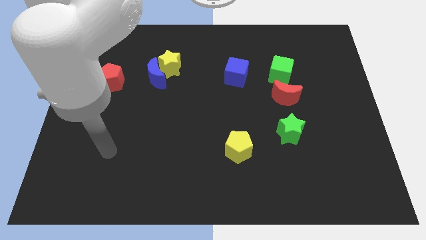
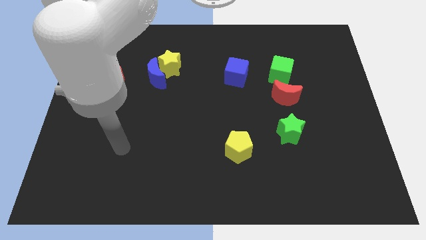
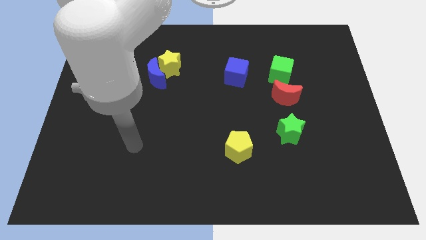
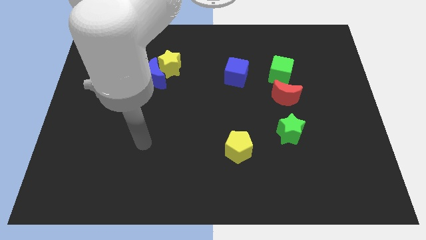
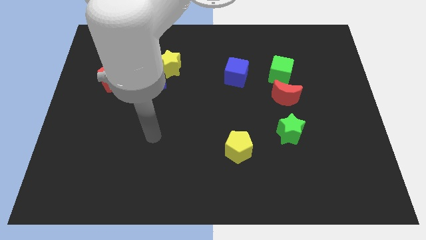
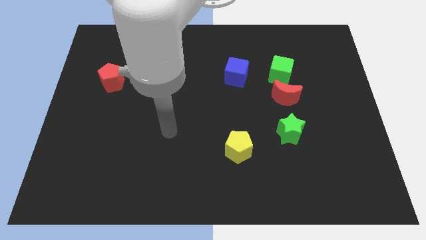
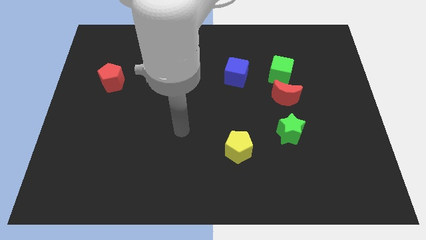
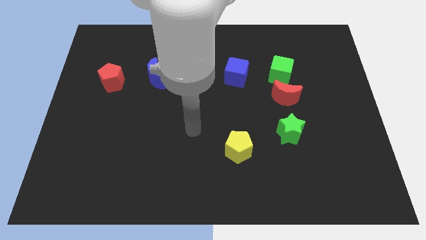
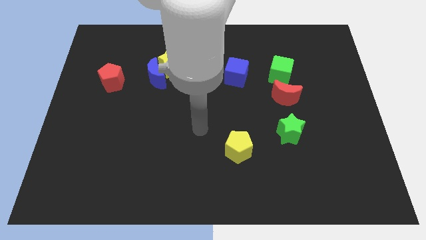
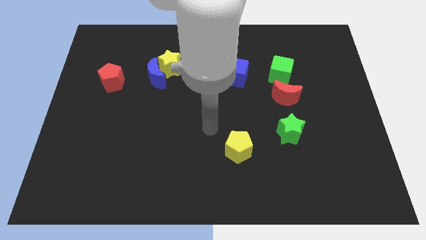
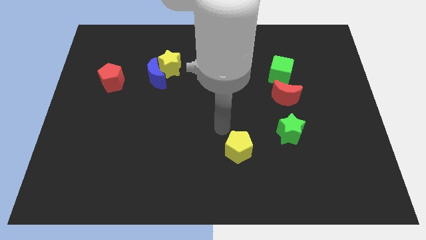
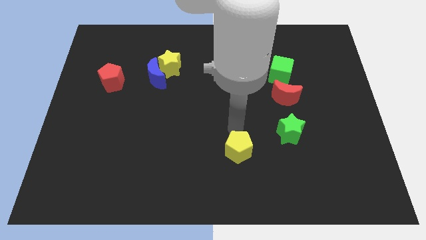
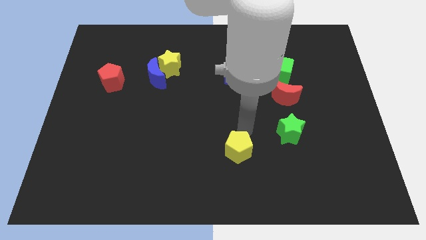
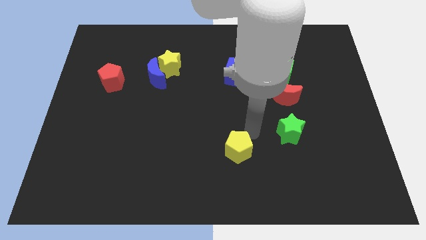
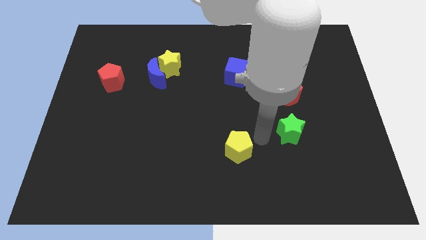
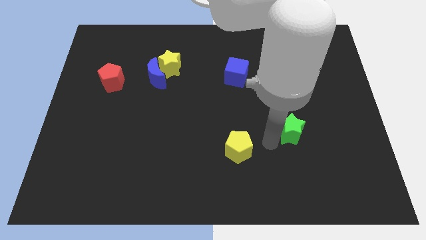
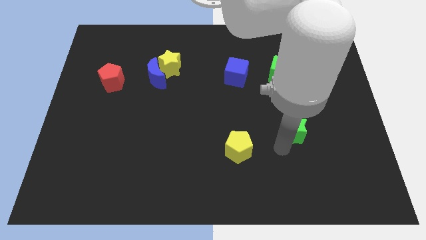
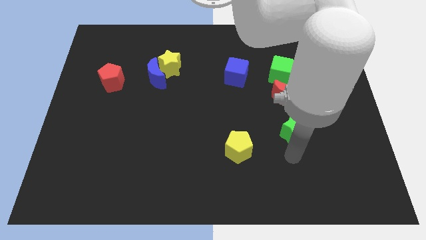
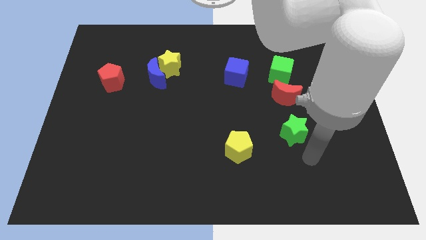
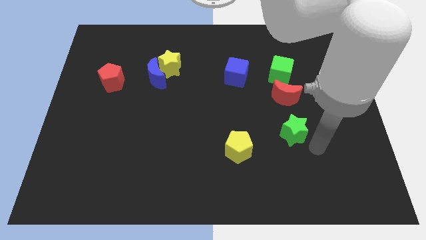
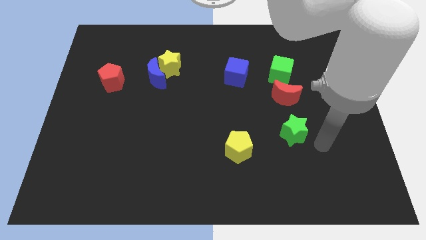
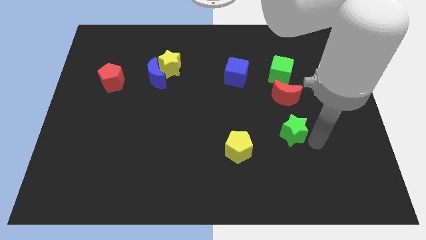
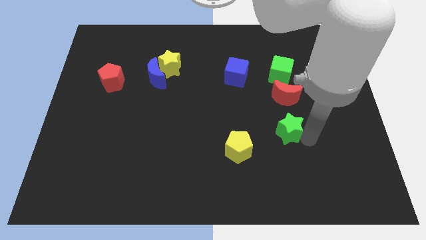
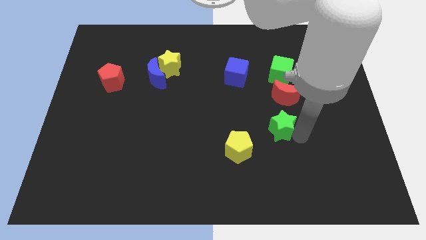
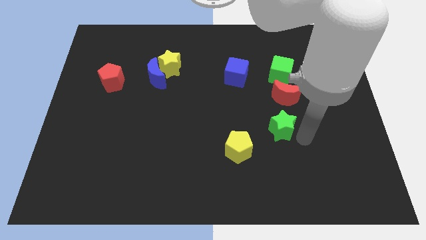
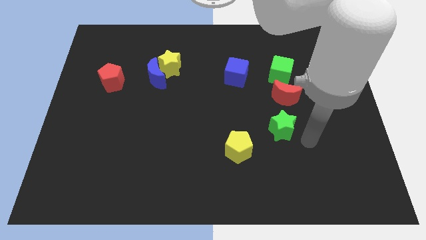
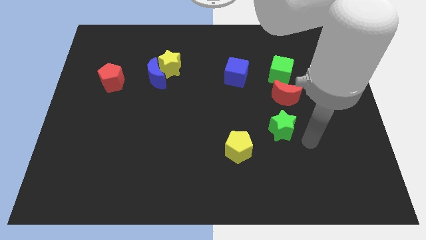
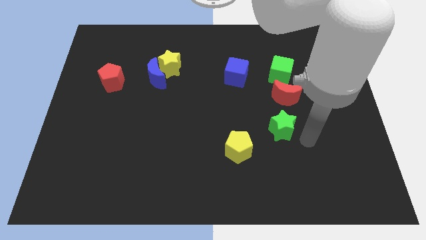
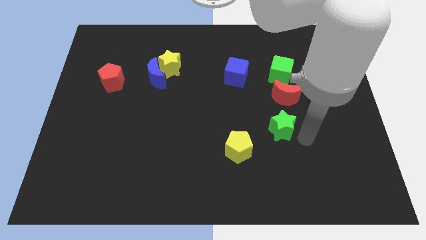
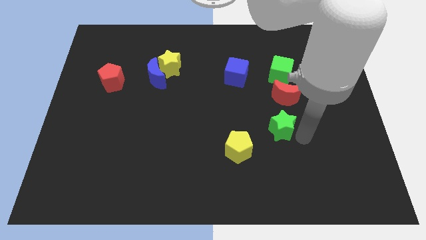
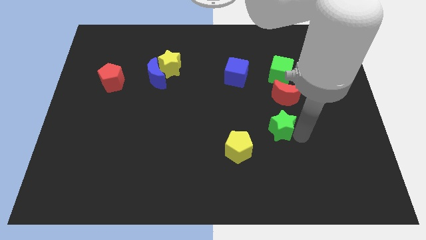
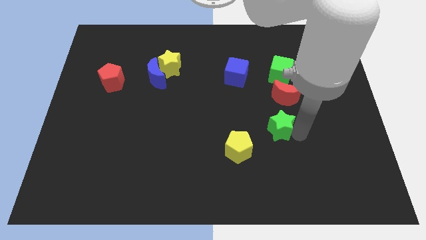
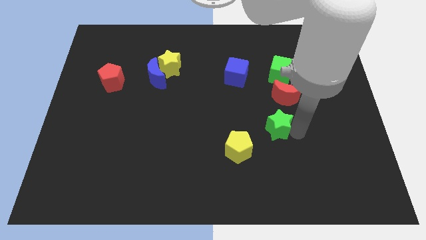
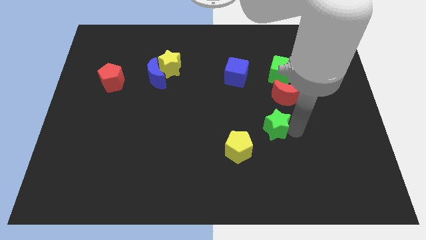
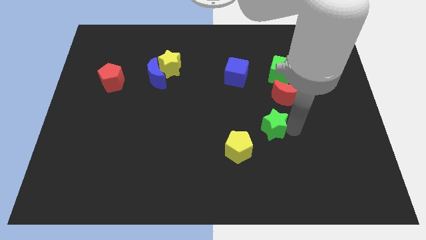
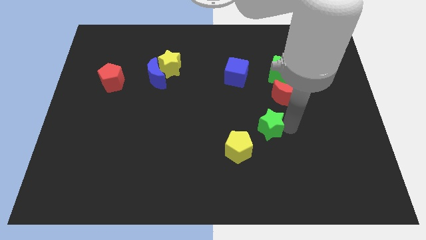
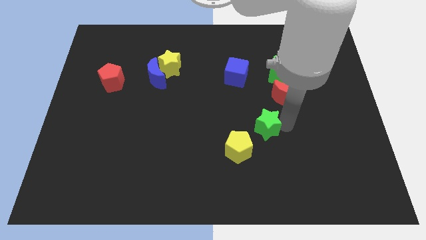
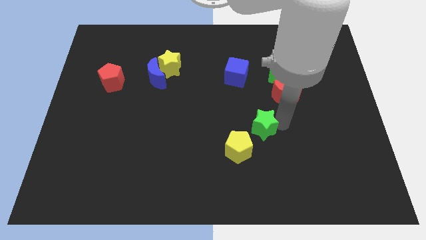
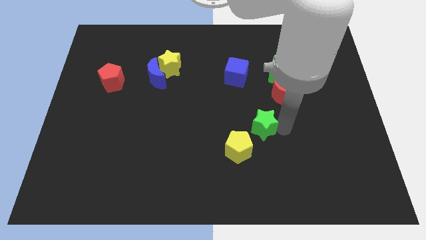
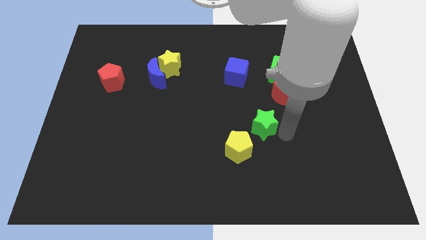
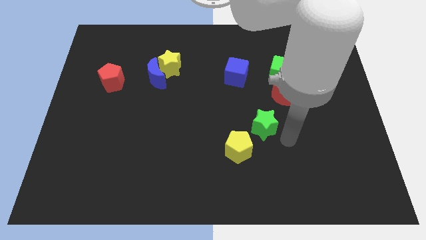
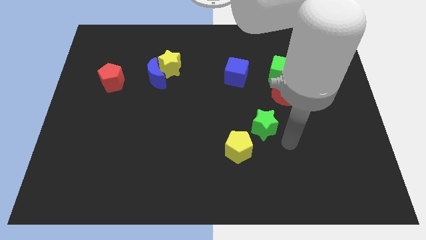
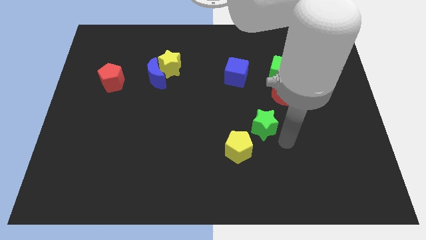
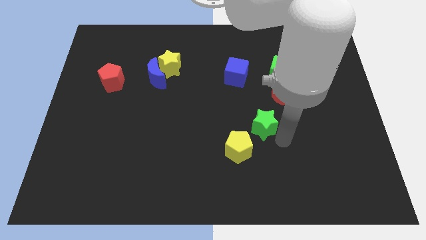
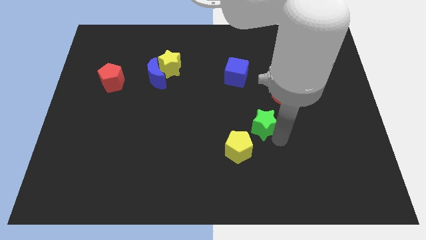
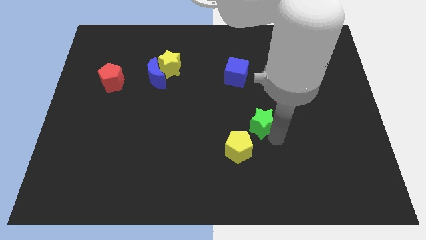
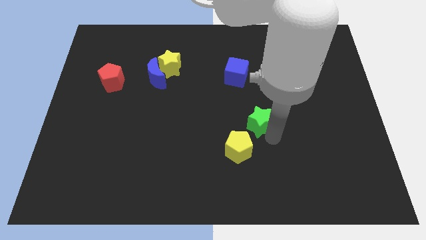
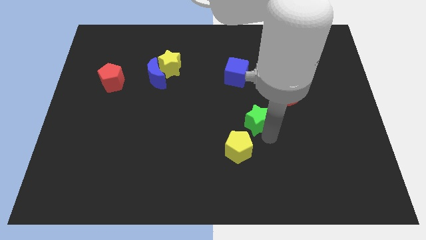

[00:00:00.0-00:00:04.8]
put the green star to the middle

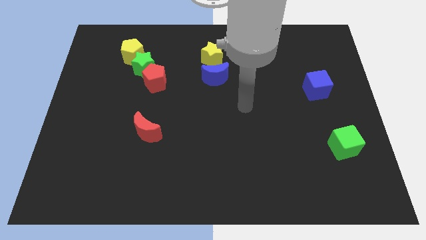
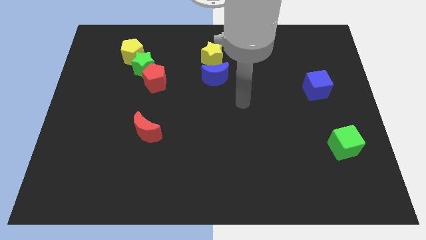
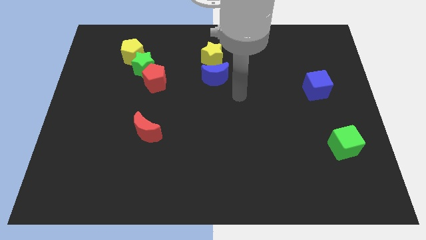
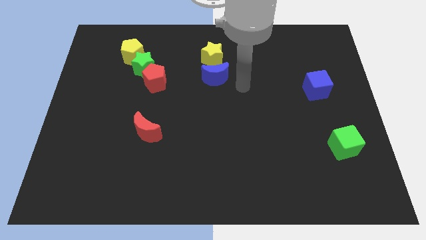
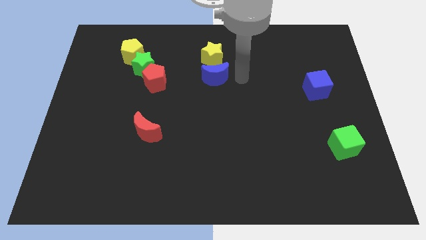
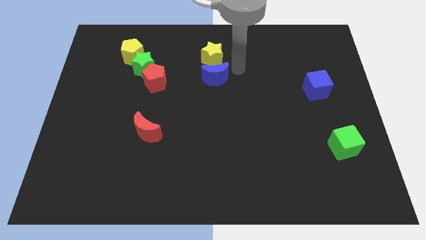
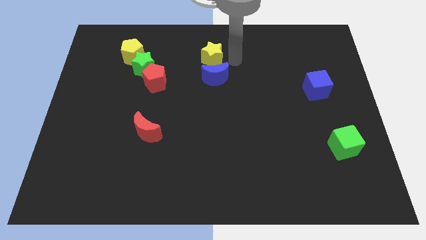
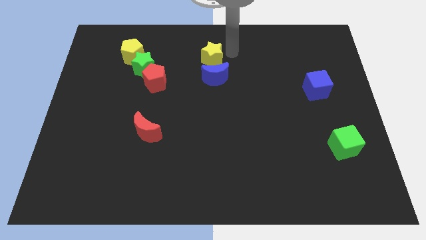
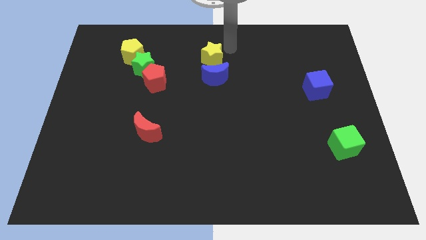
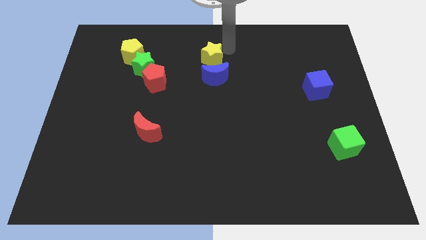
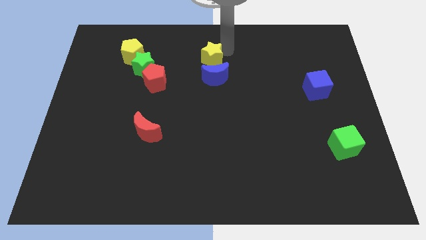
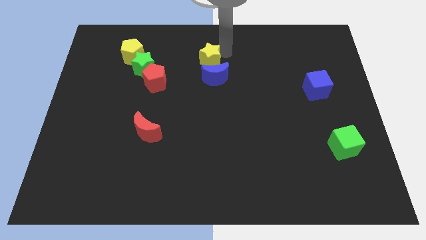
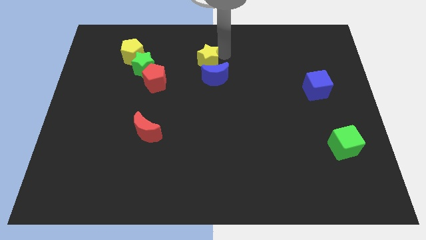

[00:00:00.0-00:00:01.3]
push the yellow star to the center
